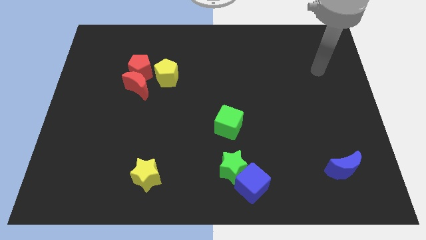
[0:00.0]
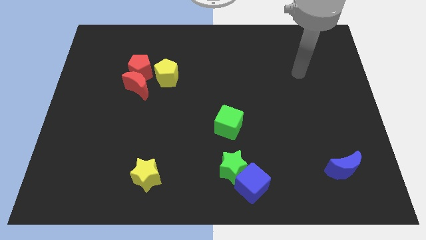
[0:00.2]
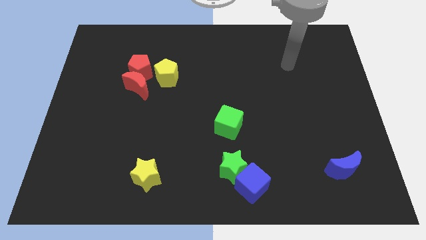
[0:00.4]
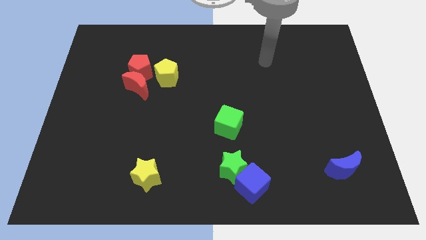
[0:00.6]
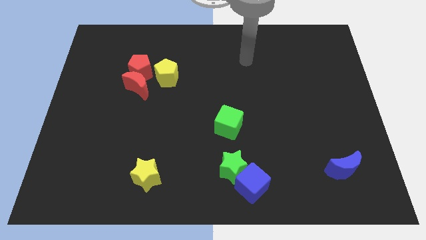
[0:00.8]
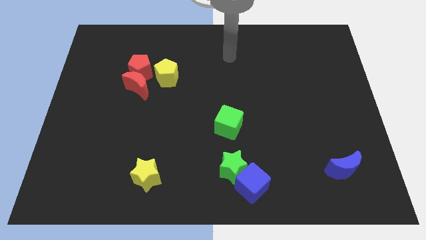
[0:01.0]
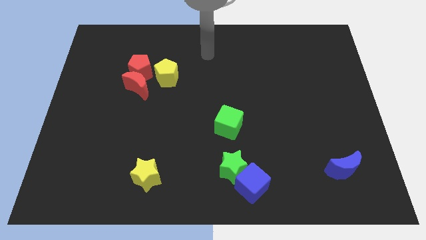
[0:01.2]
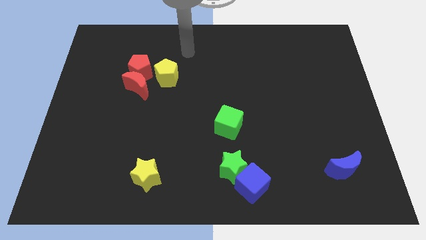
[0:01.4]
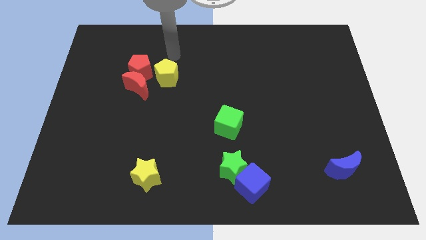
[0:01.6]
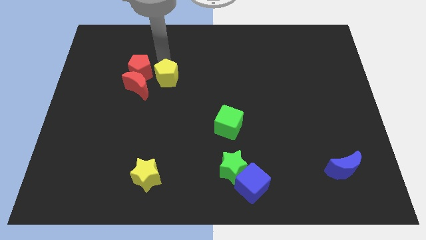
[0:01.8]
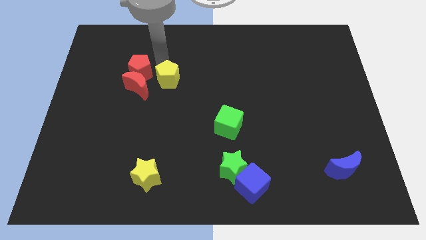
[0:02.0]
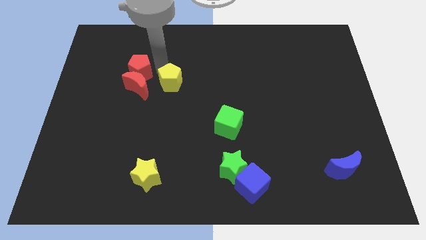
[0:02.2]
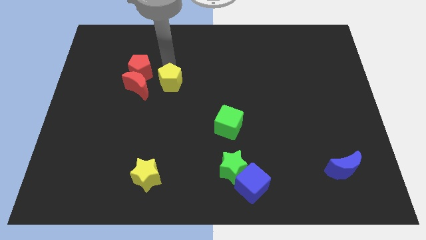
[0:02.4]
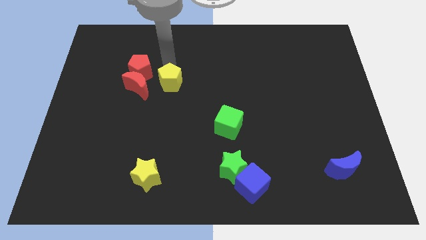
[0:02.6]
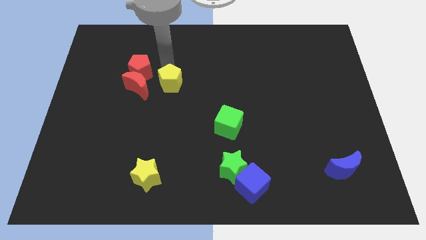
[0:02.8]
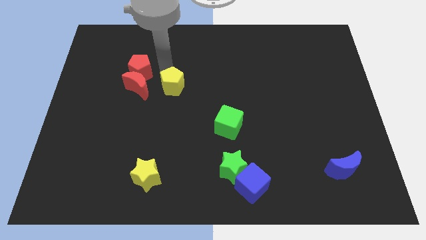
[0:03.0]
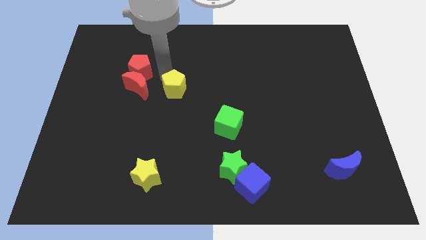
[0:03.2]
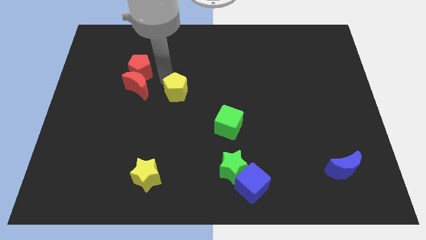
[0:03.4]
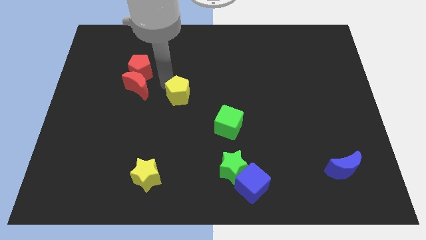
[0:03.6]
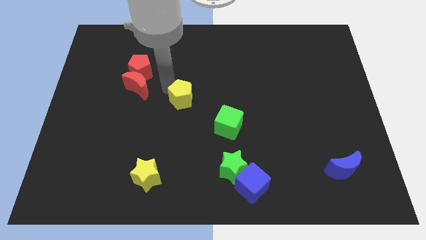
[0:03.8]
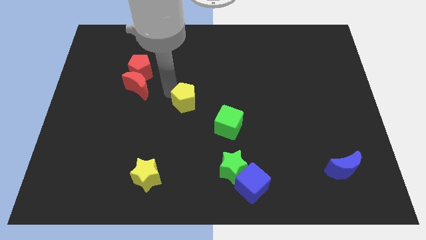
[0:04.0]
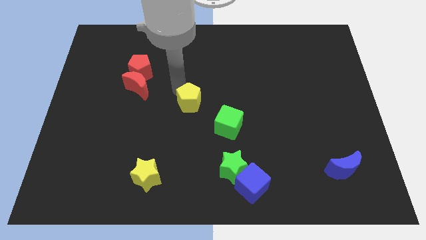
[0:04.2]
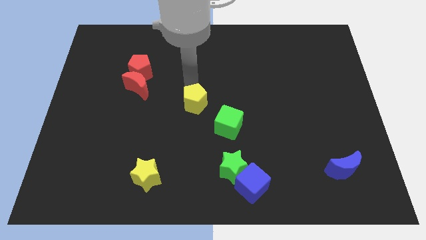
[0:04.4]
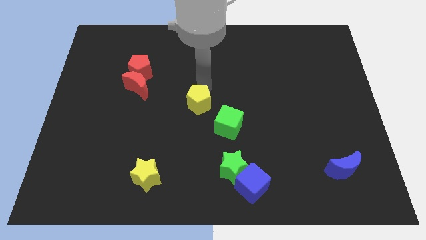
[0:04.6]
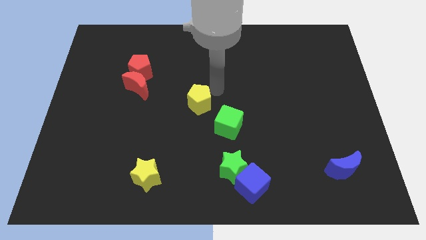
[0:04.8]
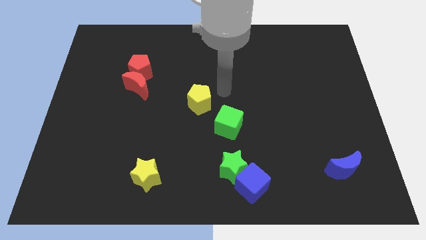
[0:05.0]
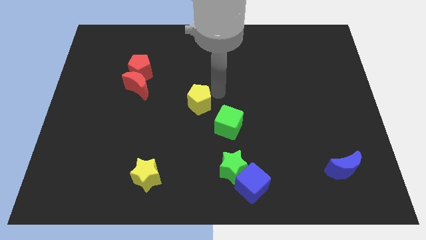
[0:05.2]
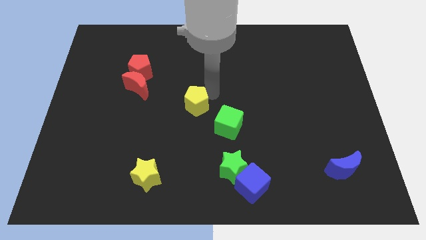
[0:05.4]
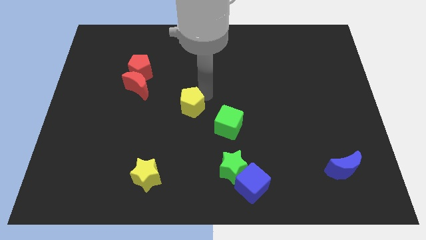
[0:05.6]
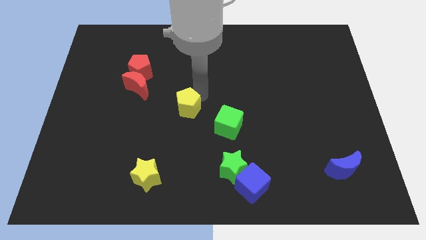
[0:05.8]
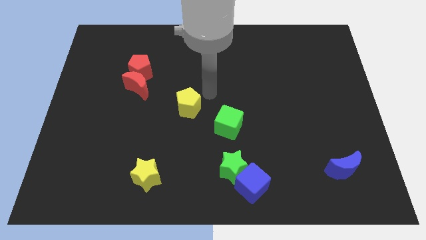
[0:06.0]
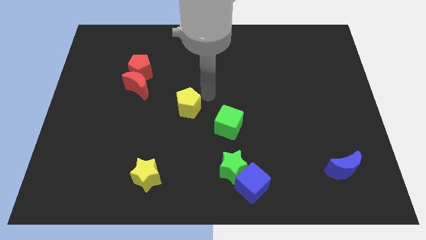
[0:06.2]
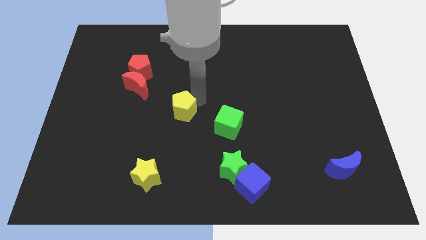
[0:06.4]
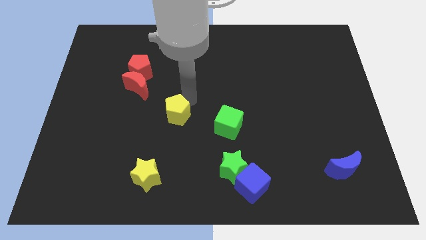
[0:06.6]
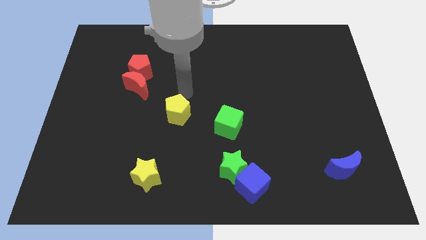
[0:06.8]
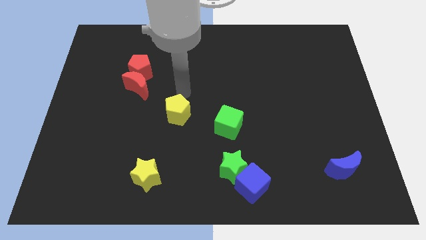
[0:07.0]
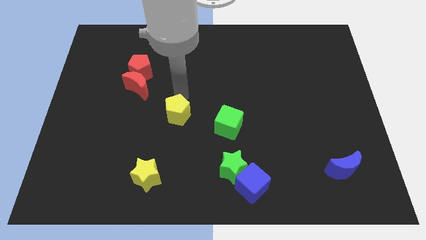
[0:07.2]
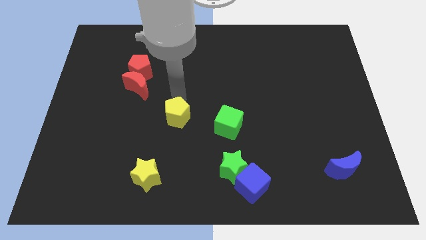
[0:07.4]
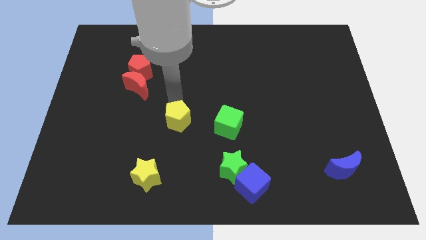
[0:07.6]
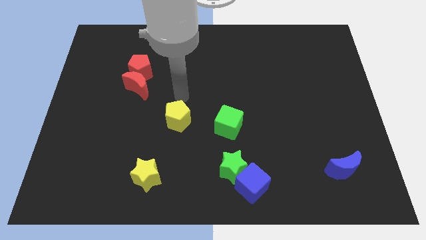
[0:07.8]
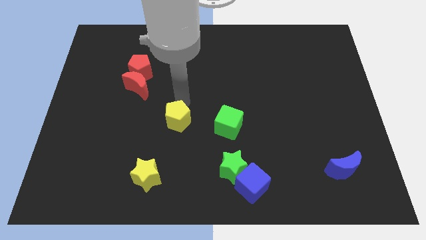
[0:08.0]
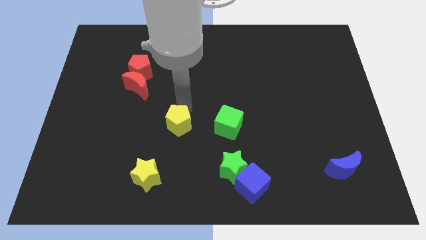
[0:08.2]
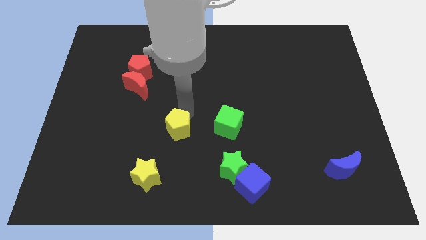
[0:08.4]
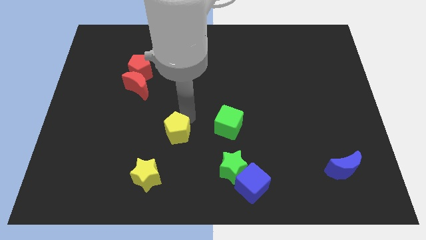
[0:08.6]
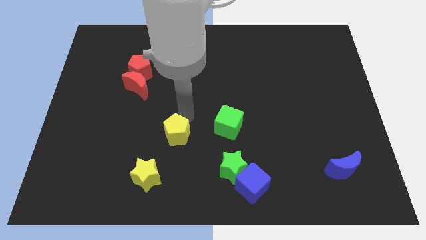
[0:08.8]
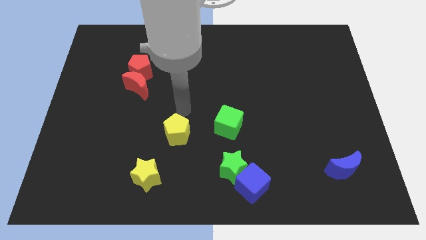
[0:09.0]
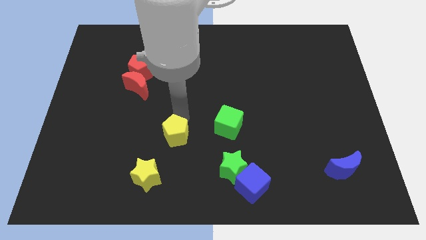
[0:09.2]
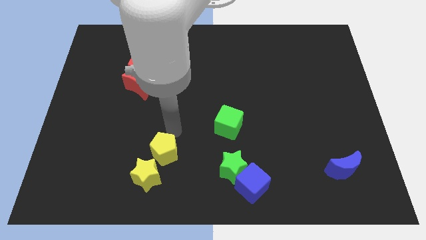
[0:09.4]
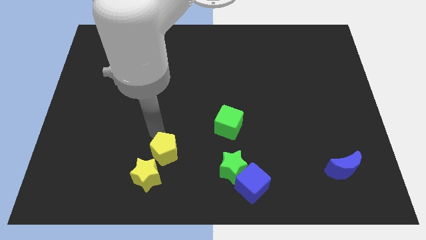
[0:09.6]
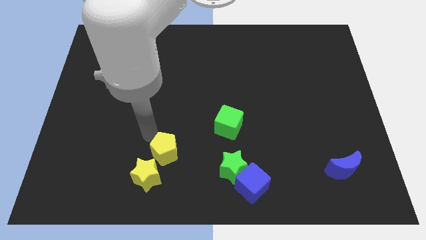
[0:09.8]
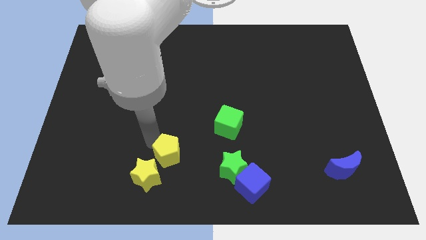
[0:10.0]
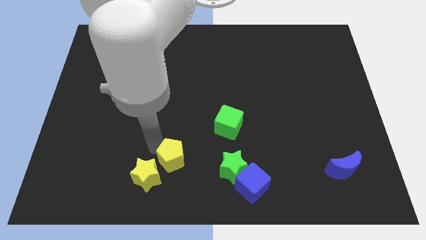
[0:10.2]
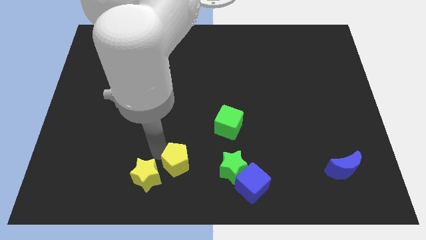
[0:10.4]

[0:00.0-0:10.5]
move the yellow pentagon to the bottom

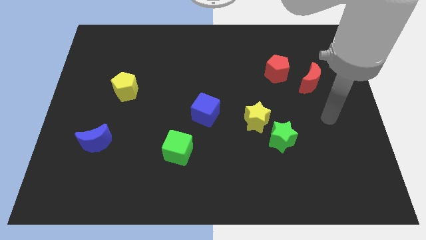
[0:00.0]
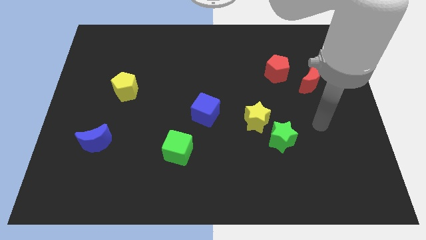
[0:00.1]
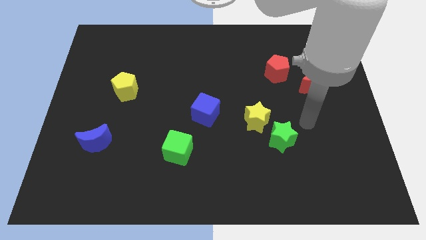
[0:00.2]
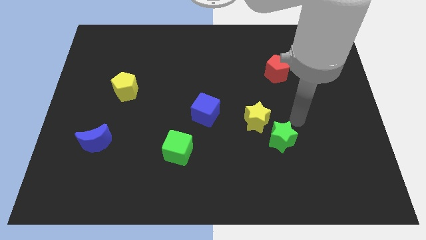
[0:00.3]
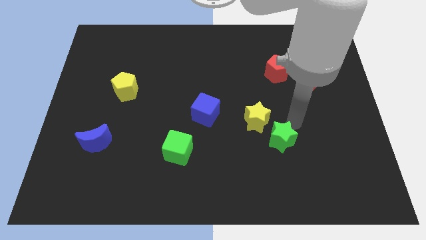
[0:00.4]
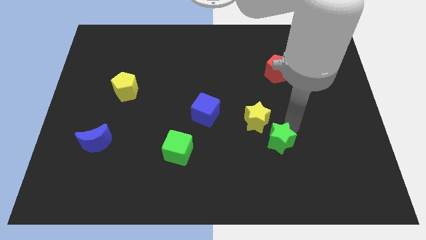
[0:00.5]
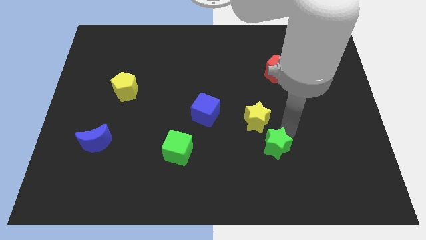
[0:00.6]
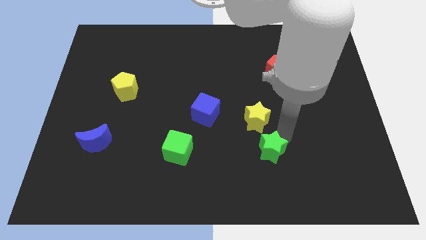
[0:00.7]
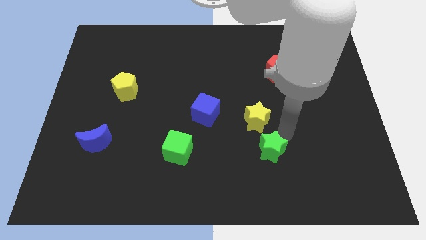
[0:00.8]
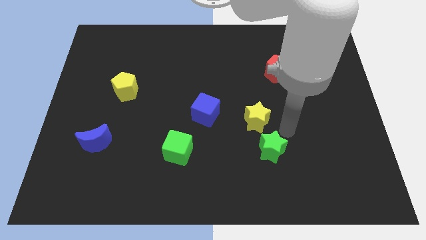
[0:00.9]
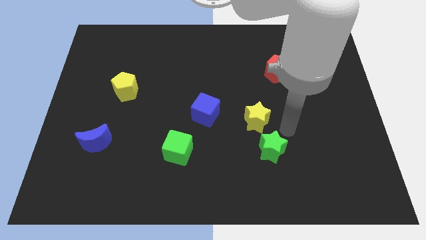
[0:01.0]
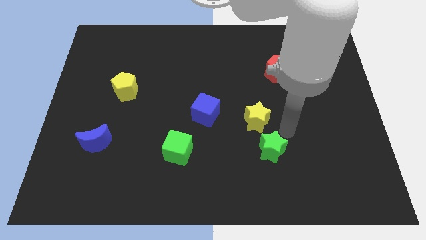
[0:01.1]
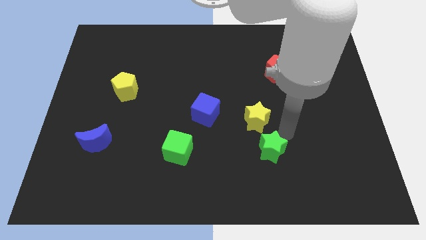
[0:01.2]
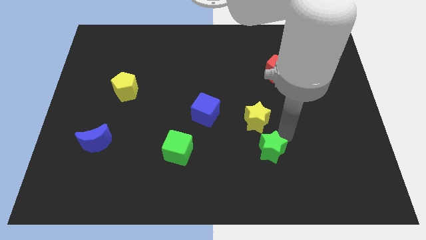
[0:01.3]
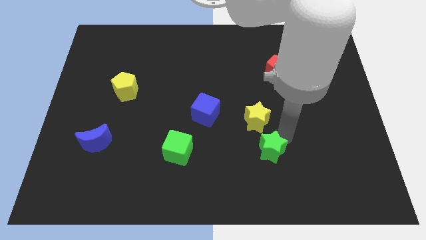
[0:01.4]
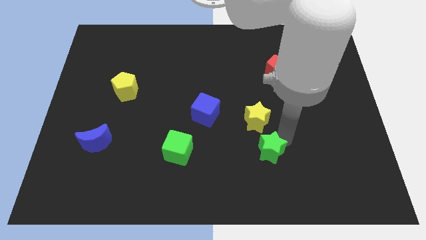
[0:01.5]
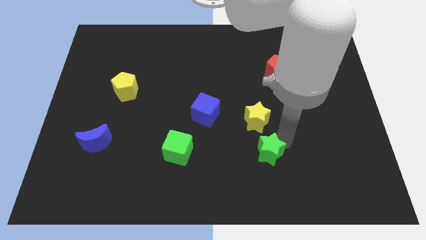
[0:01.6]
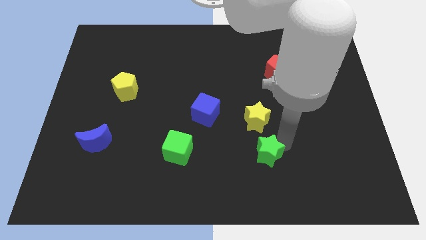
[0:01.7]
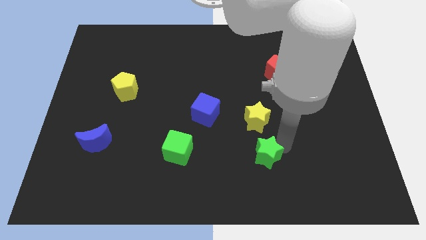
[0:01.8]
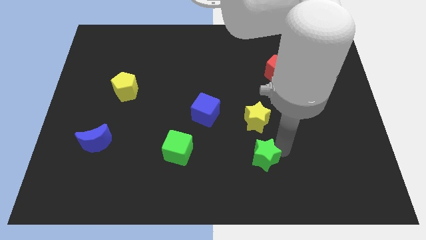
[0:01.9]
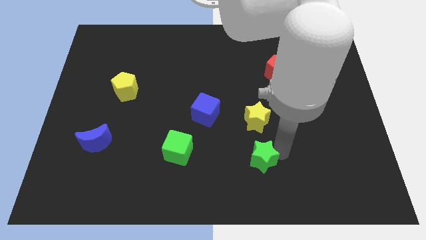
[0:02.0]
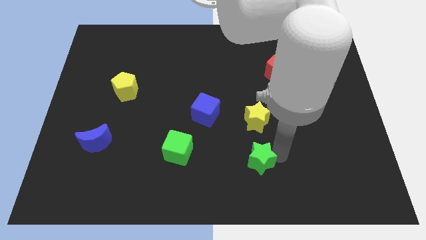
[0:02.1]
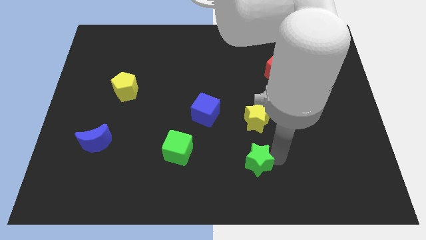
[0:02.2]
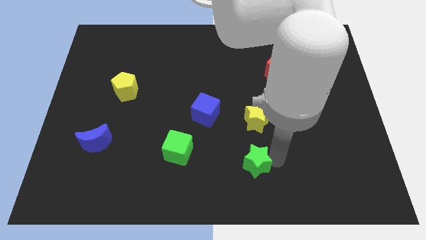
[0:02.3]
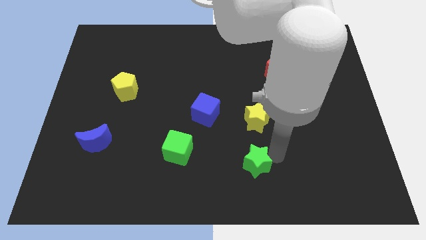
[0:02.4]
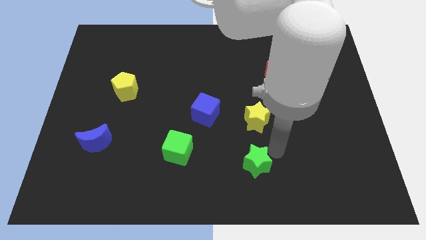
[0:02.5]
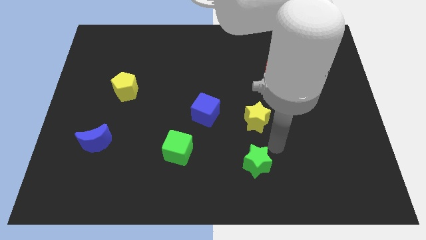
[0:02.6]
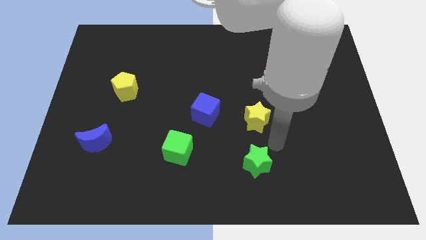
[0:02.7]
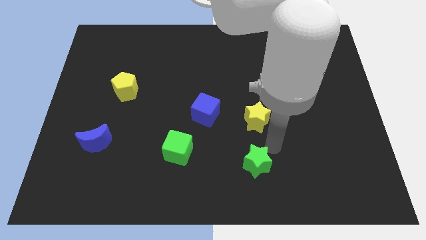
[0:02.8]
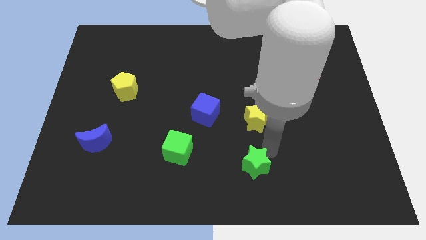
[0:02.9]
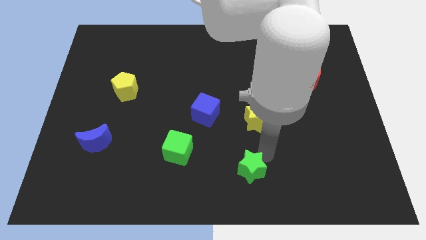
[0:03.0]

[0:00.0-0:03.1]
slide the green star to the bottom side
